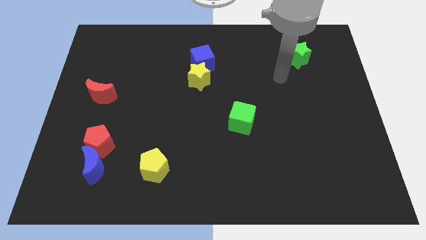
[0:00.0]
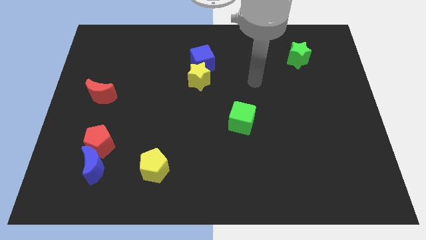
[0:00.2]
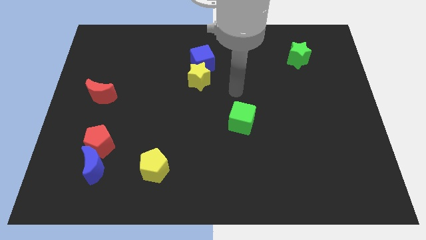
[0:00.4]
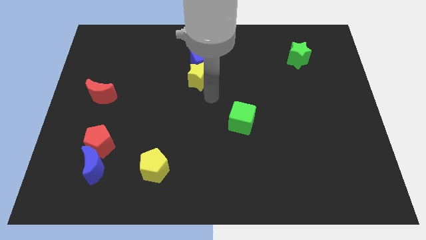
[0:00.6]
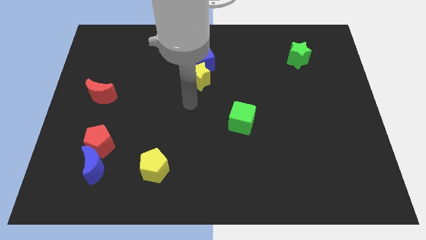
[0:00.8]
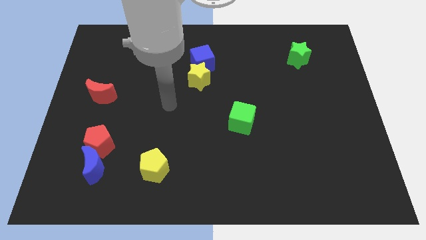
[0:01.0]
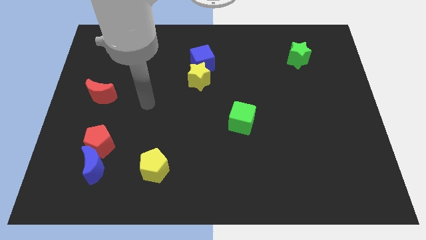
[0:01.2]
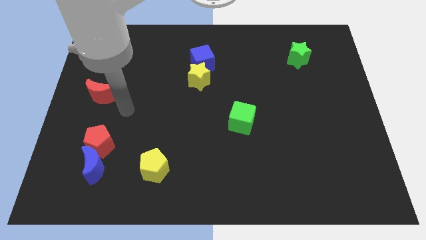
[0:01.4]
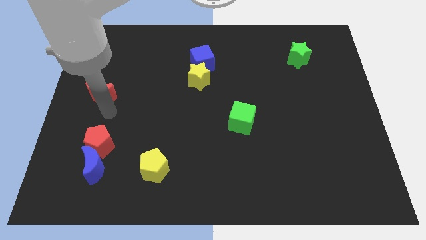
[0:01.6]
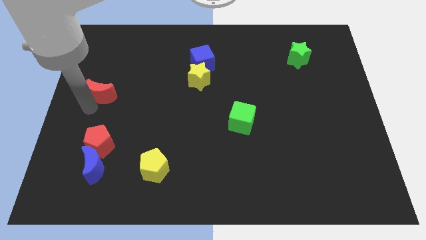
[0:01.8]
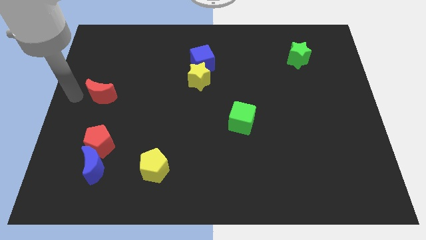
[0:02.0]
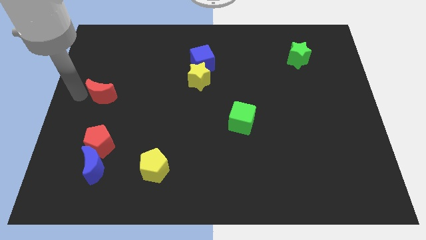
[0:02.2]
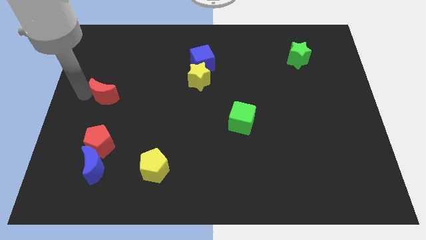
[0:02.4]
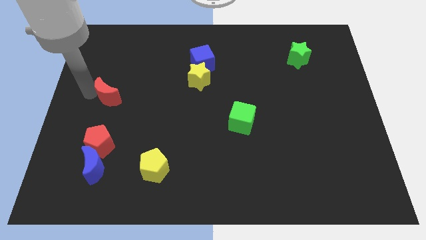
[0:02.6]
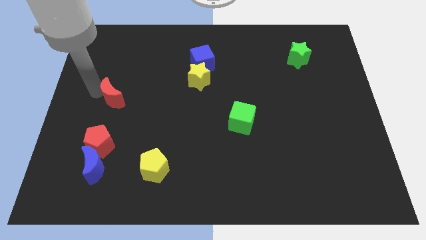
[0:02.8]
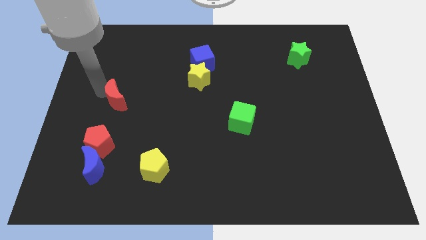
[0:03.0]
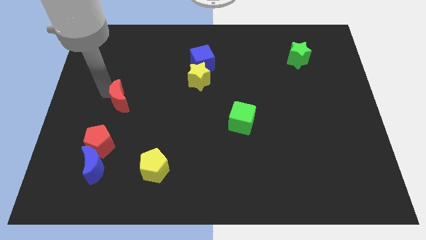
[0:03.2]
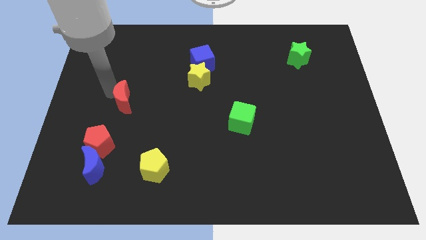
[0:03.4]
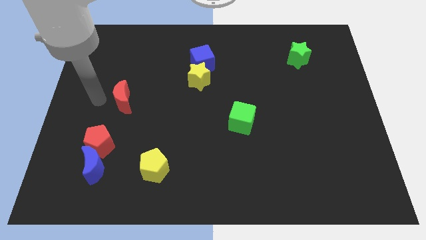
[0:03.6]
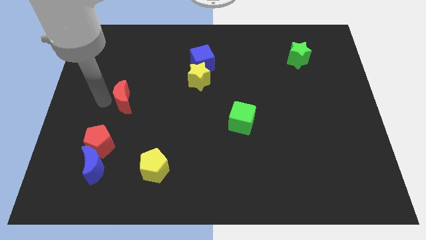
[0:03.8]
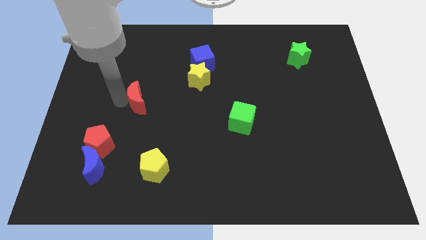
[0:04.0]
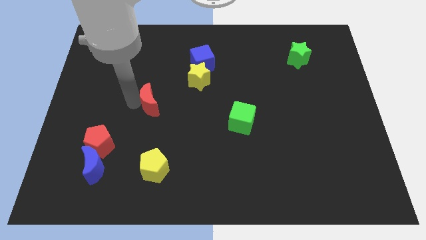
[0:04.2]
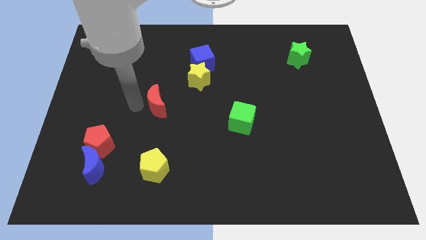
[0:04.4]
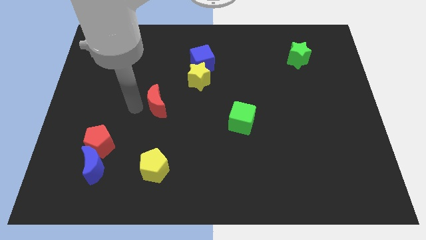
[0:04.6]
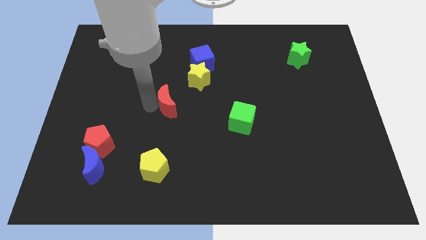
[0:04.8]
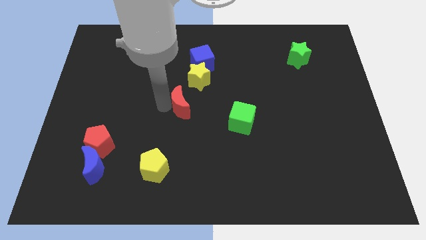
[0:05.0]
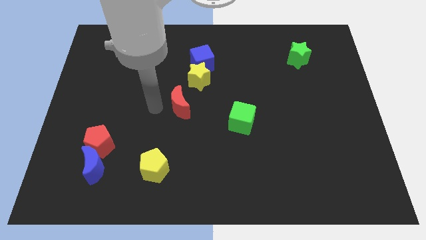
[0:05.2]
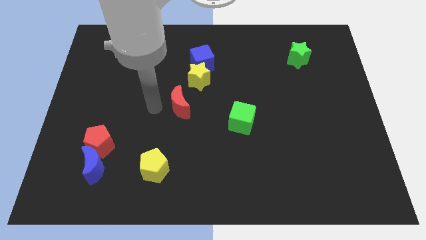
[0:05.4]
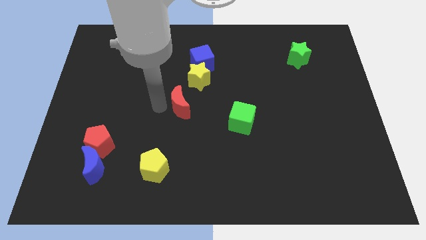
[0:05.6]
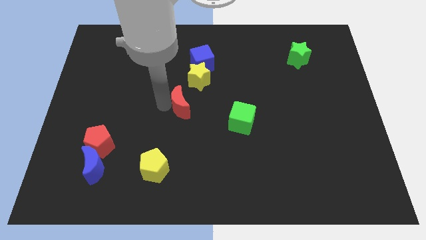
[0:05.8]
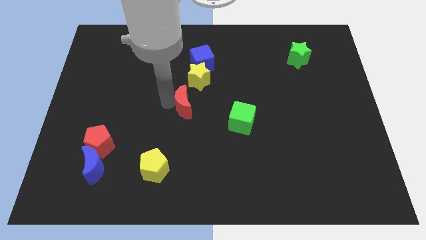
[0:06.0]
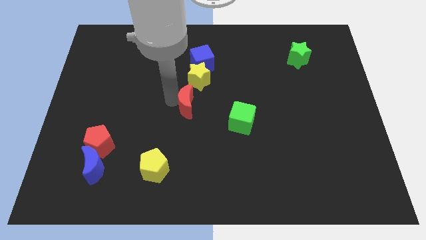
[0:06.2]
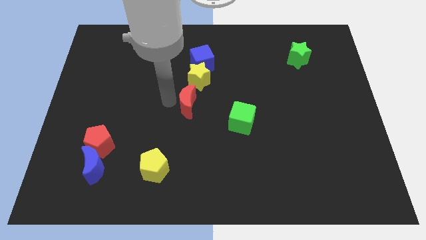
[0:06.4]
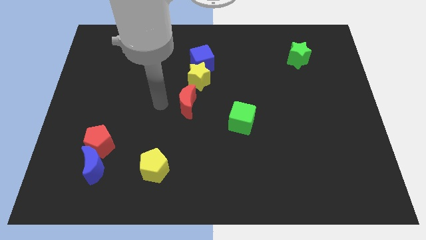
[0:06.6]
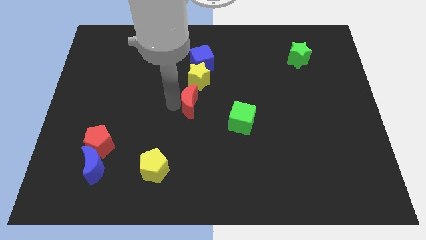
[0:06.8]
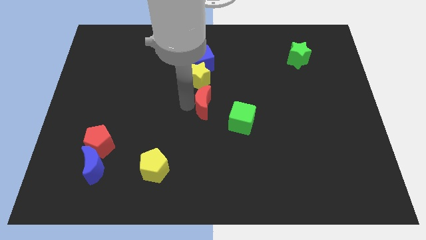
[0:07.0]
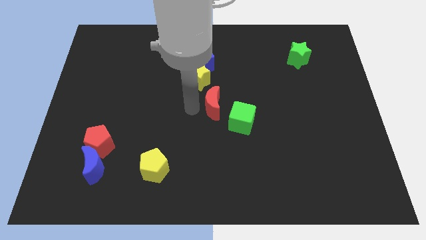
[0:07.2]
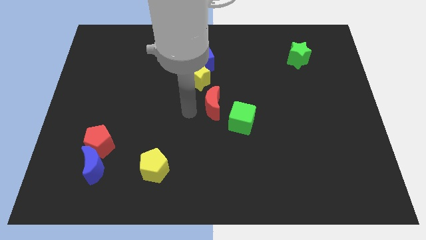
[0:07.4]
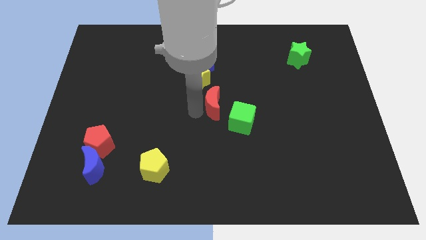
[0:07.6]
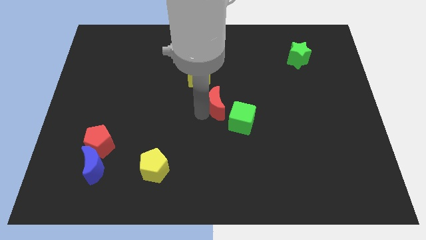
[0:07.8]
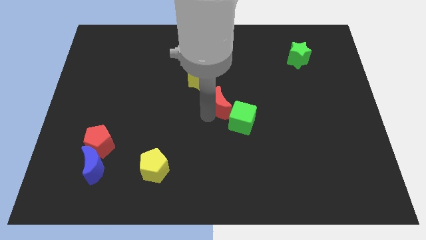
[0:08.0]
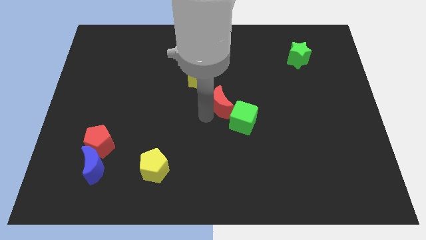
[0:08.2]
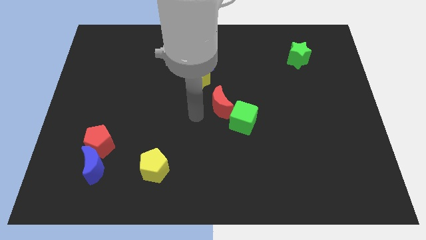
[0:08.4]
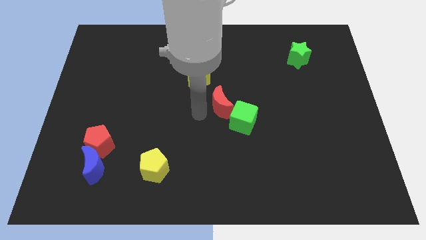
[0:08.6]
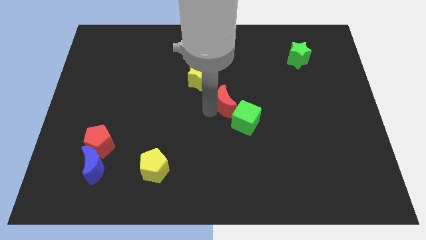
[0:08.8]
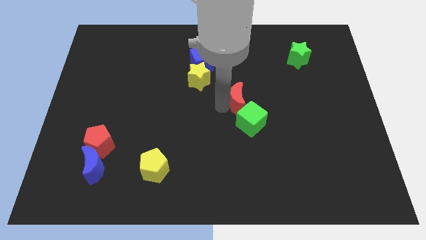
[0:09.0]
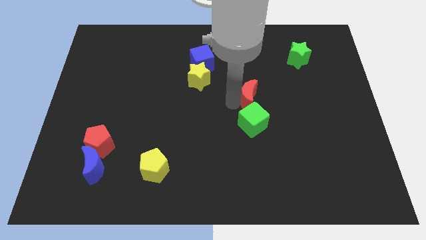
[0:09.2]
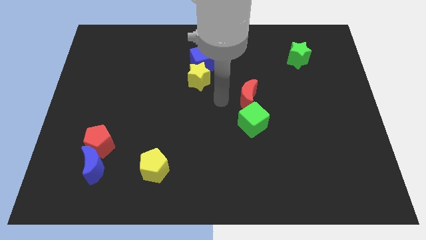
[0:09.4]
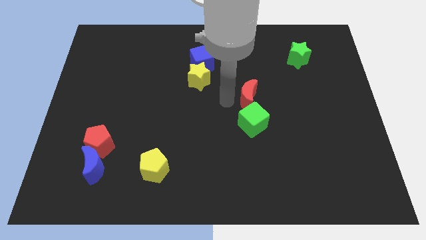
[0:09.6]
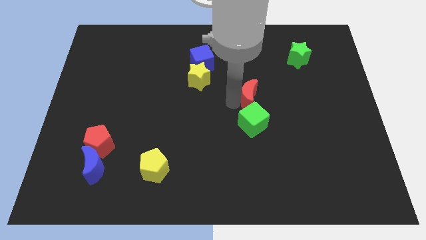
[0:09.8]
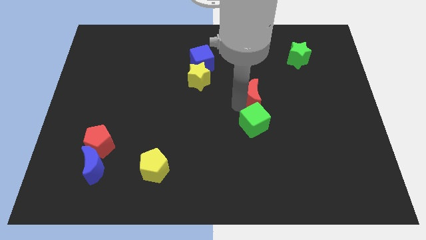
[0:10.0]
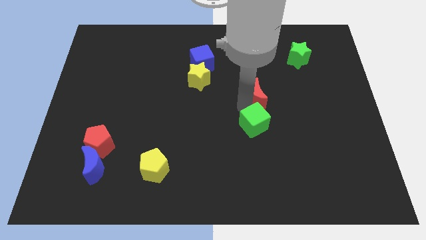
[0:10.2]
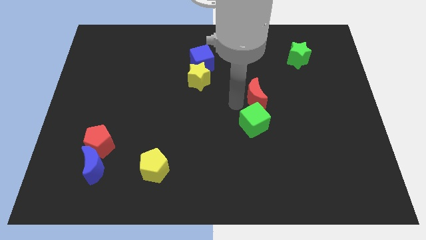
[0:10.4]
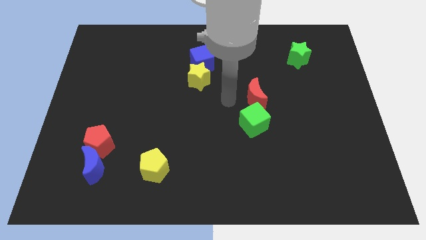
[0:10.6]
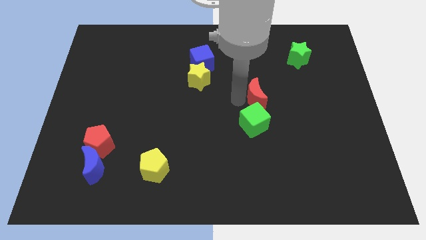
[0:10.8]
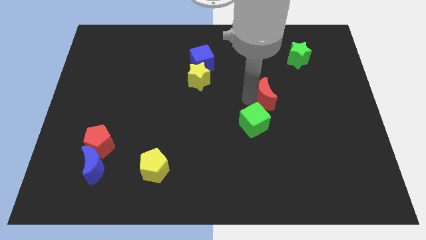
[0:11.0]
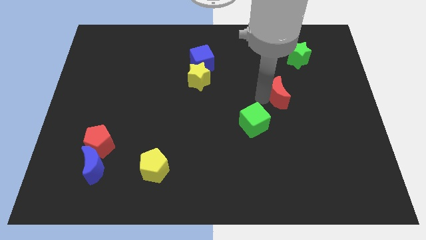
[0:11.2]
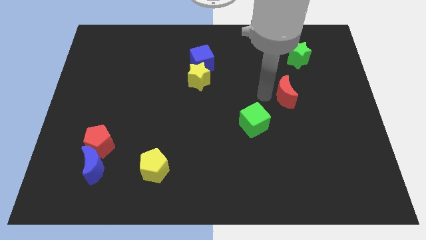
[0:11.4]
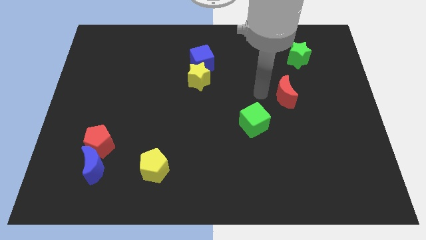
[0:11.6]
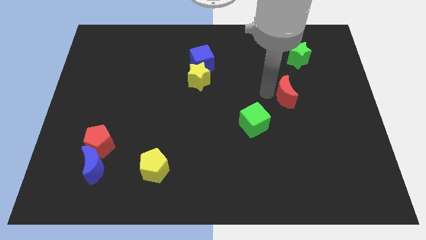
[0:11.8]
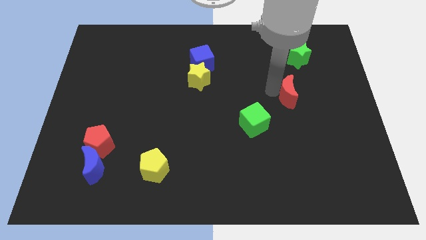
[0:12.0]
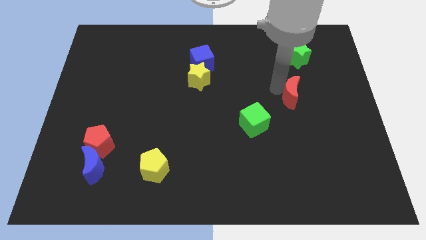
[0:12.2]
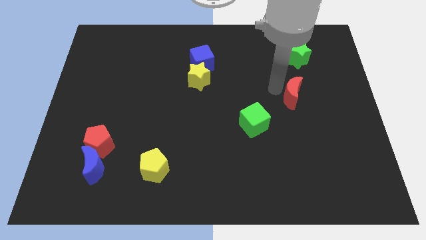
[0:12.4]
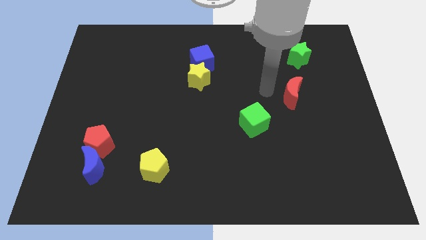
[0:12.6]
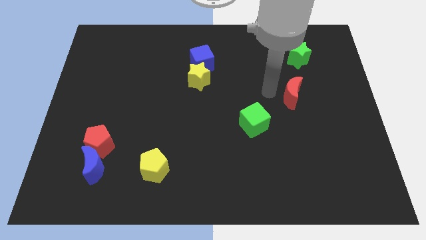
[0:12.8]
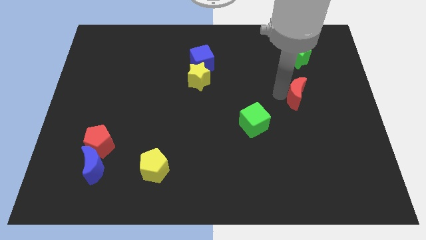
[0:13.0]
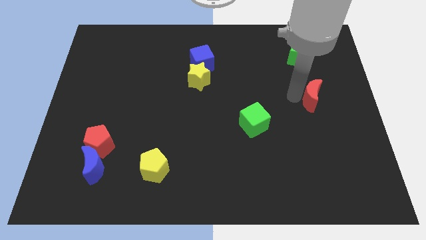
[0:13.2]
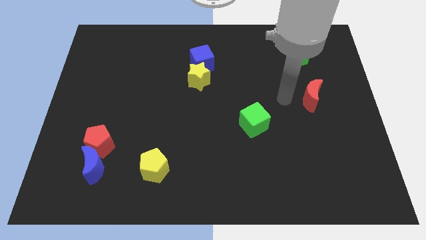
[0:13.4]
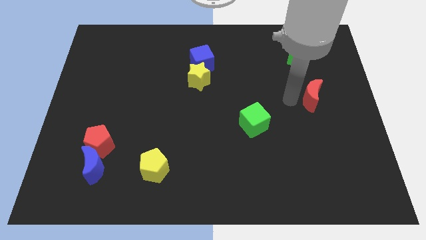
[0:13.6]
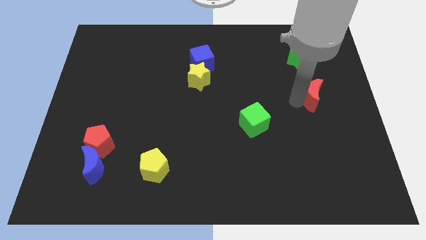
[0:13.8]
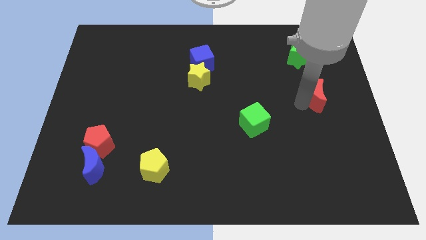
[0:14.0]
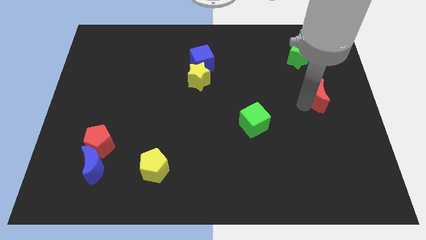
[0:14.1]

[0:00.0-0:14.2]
put the red moon to the right side
